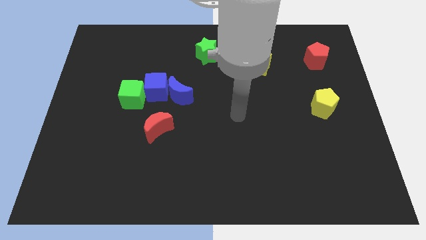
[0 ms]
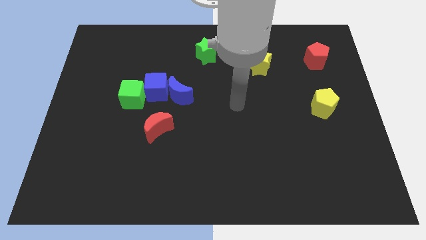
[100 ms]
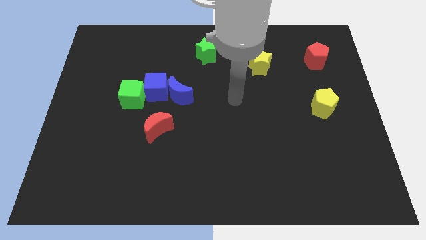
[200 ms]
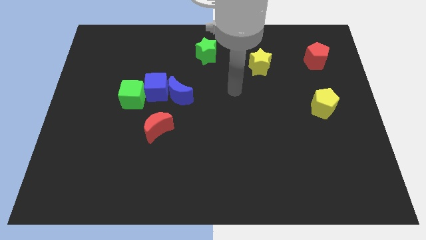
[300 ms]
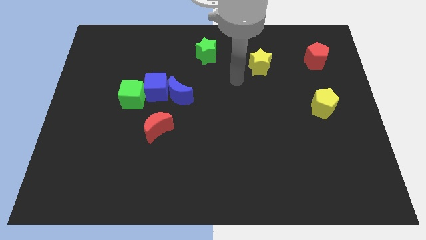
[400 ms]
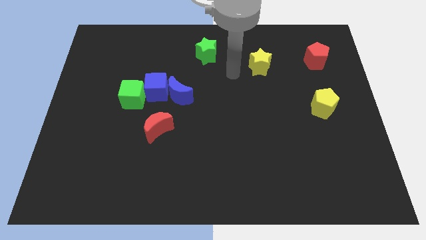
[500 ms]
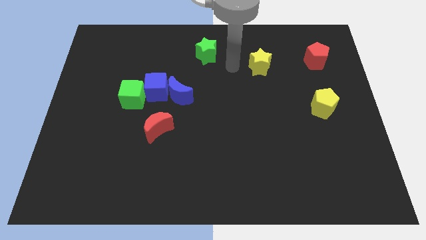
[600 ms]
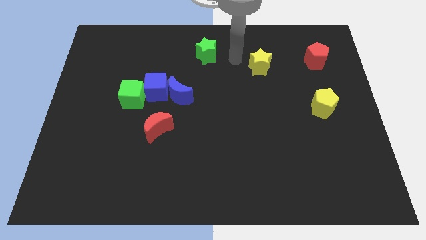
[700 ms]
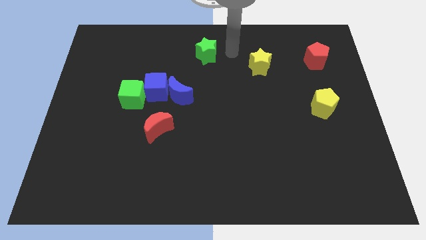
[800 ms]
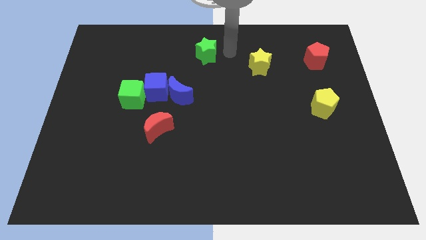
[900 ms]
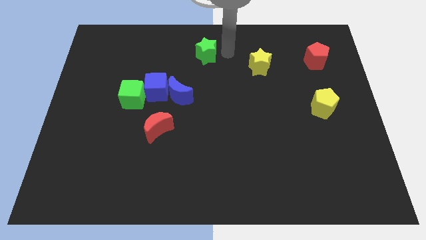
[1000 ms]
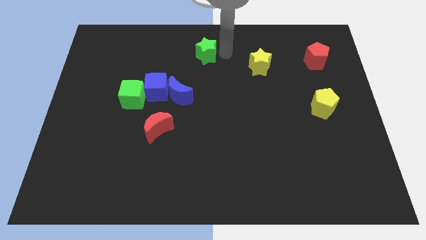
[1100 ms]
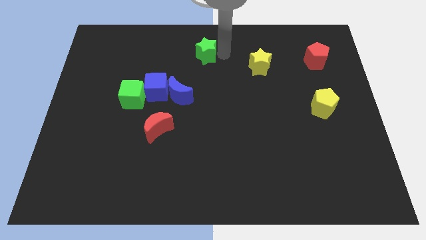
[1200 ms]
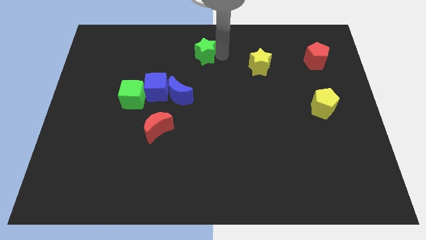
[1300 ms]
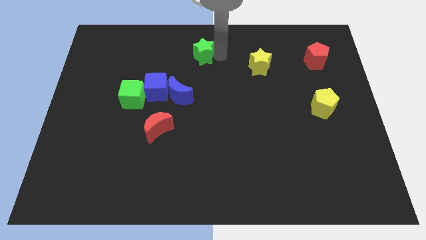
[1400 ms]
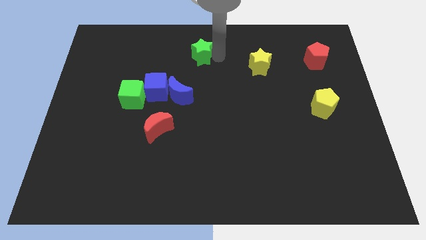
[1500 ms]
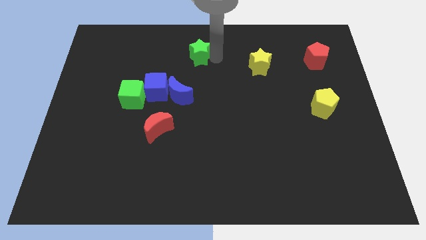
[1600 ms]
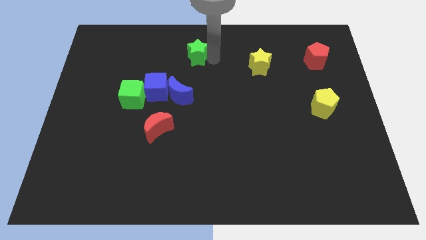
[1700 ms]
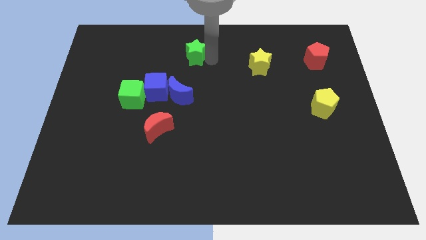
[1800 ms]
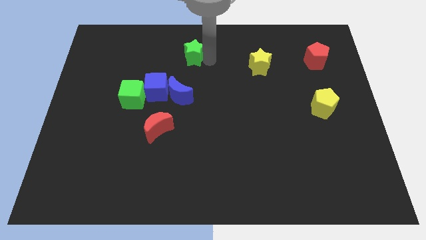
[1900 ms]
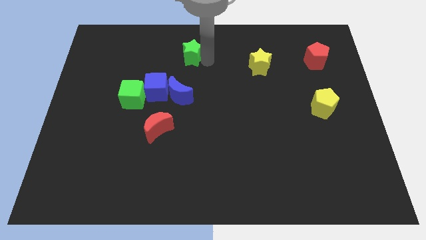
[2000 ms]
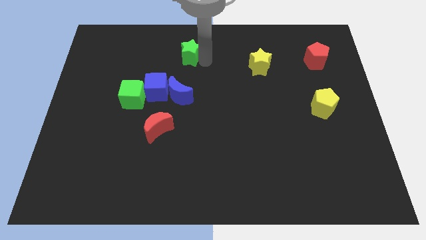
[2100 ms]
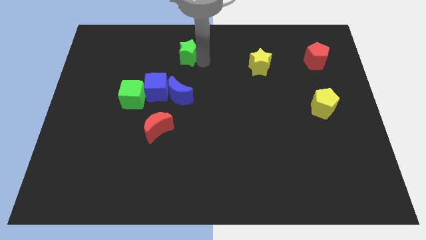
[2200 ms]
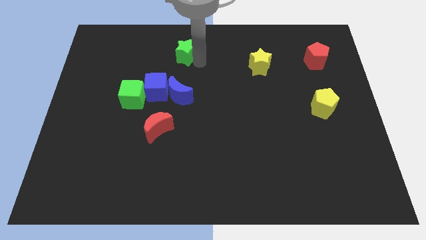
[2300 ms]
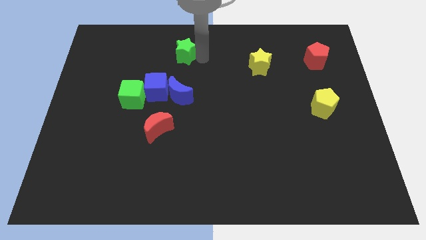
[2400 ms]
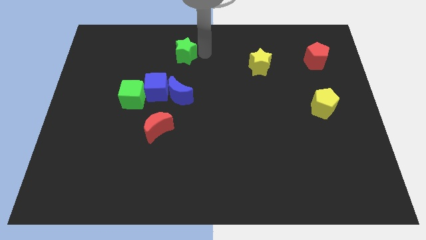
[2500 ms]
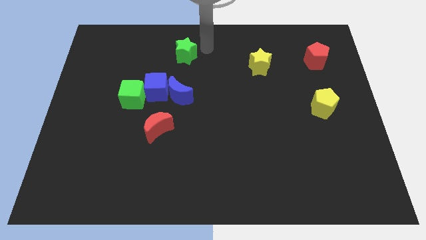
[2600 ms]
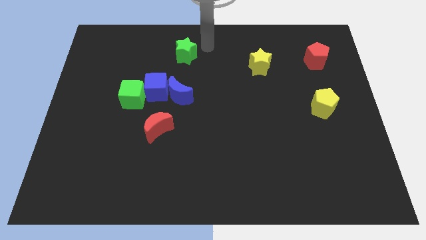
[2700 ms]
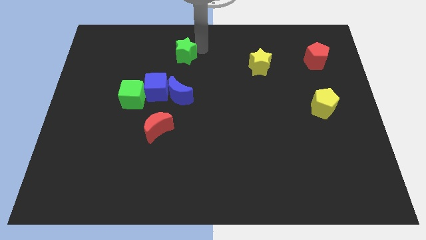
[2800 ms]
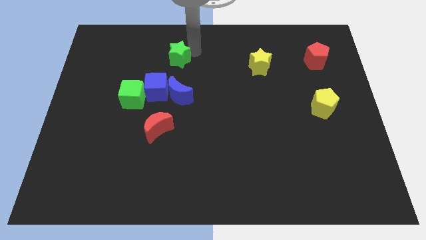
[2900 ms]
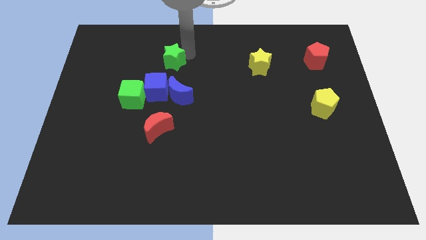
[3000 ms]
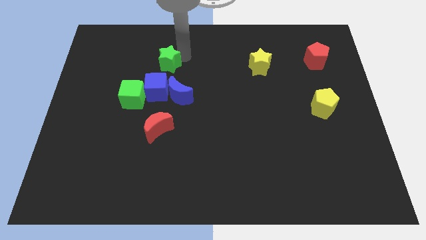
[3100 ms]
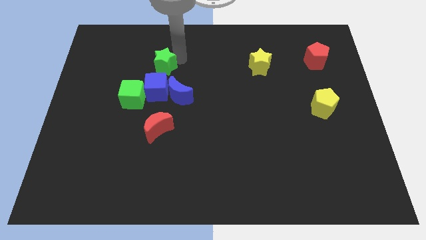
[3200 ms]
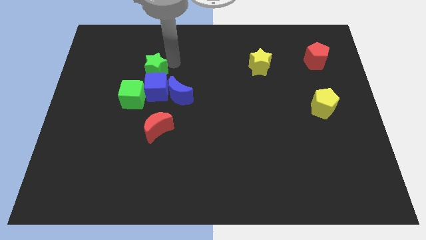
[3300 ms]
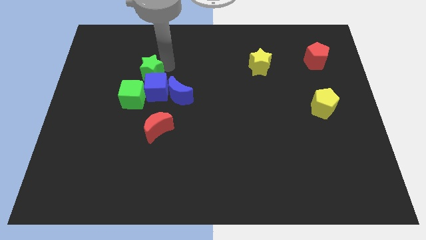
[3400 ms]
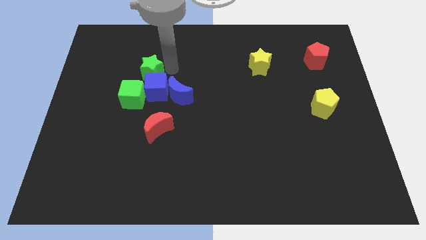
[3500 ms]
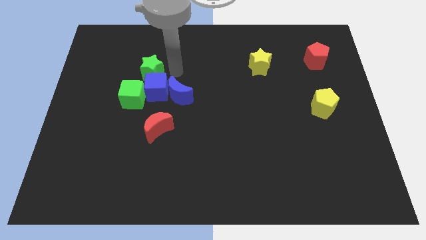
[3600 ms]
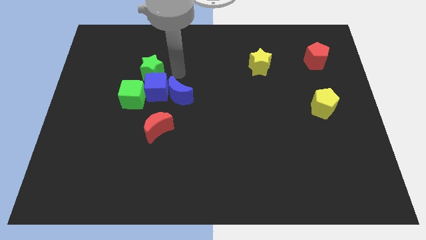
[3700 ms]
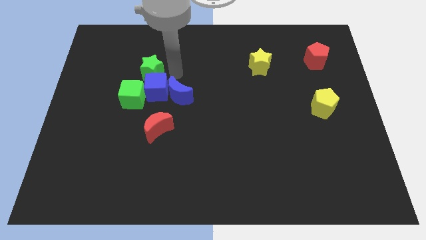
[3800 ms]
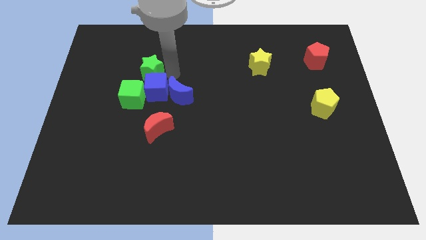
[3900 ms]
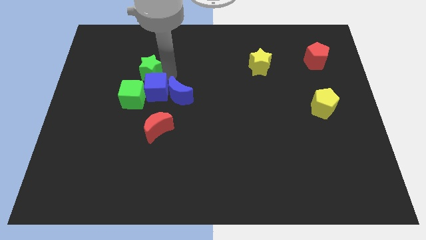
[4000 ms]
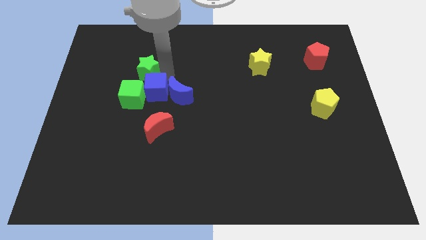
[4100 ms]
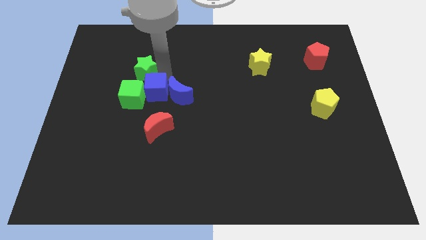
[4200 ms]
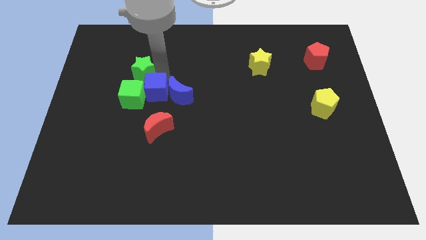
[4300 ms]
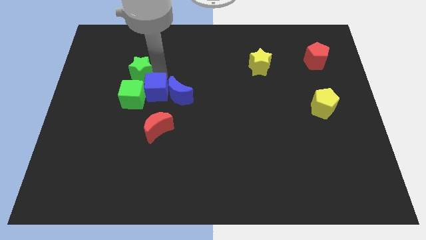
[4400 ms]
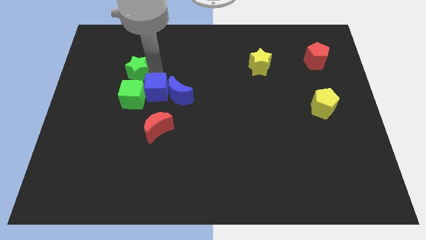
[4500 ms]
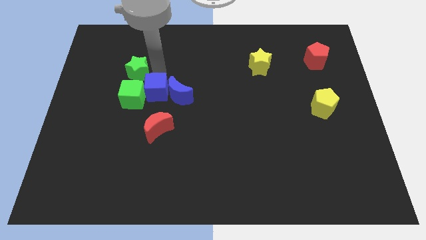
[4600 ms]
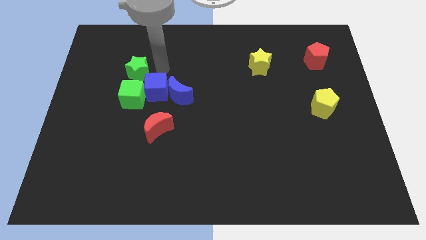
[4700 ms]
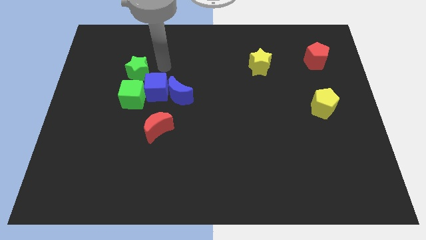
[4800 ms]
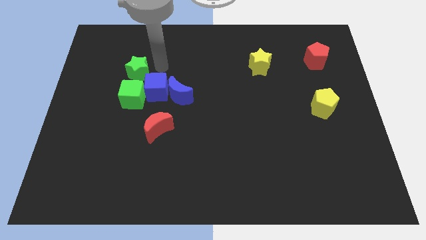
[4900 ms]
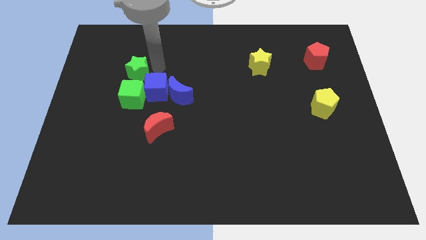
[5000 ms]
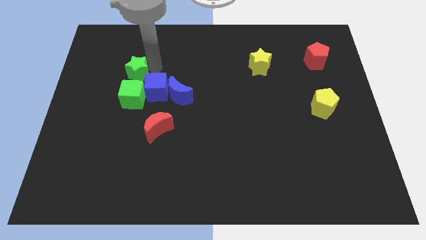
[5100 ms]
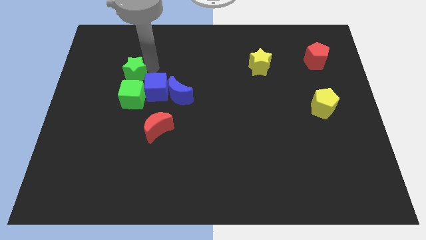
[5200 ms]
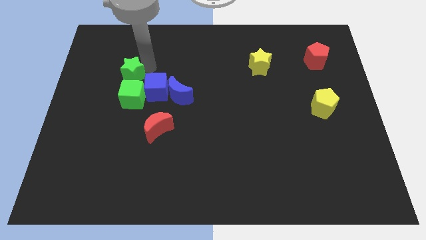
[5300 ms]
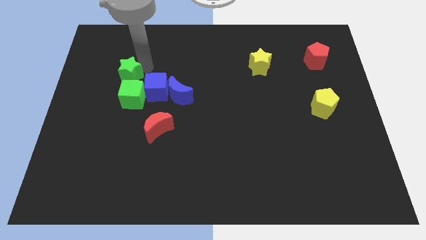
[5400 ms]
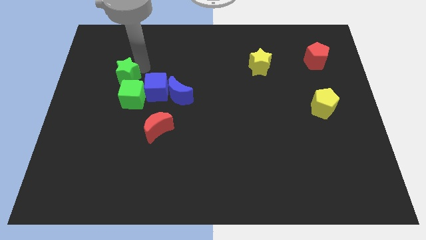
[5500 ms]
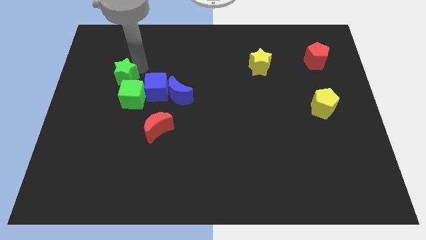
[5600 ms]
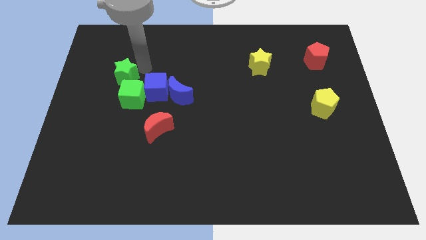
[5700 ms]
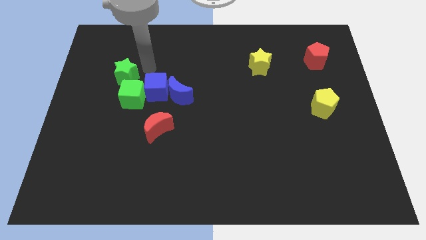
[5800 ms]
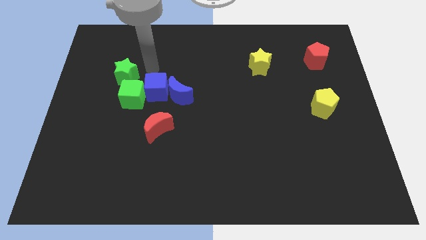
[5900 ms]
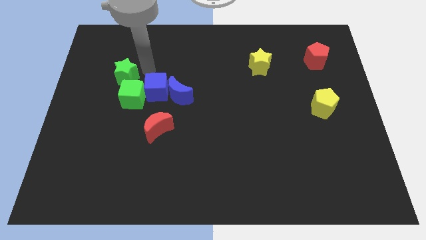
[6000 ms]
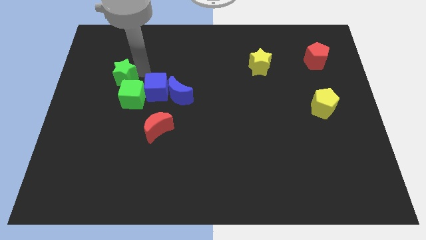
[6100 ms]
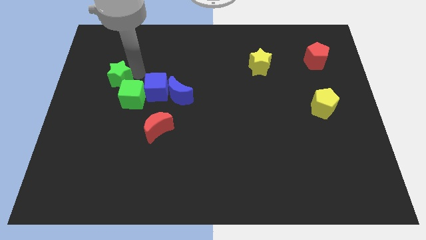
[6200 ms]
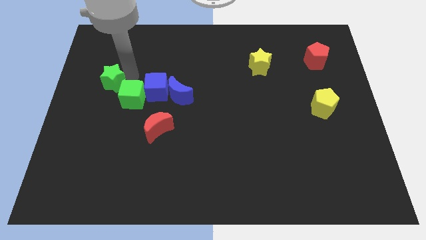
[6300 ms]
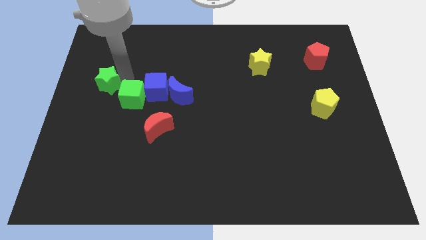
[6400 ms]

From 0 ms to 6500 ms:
put the green star to the left side
